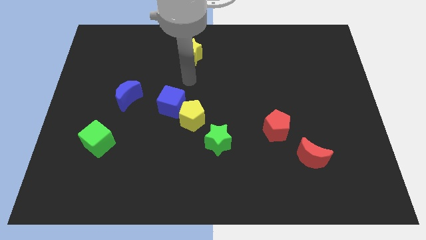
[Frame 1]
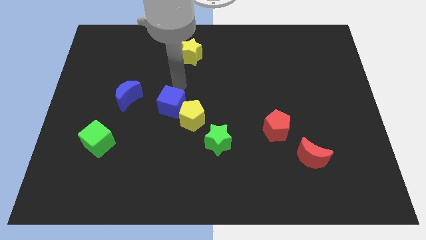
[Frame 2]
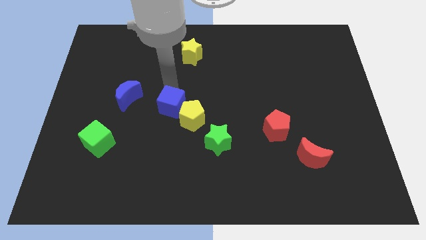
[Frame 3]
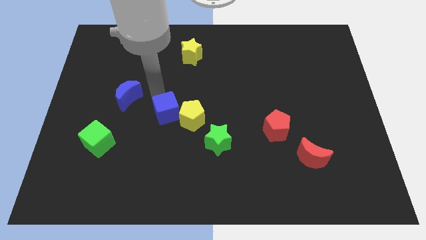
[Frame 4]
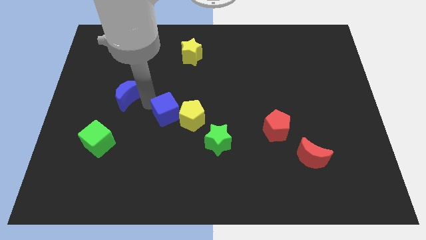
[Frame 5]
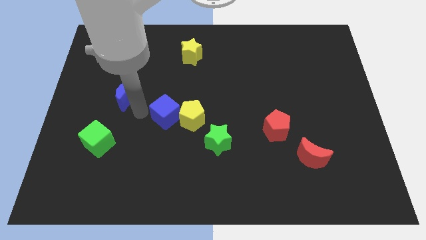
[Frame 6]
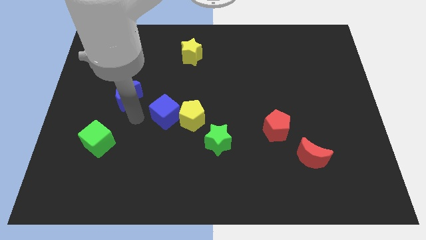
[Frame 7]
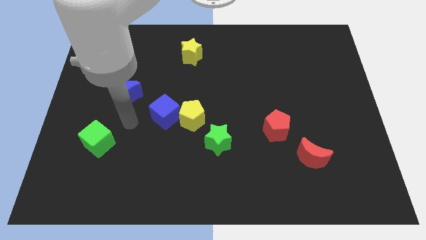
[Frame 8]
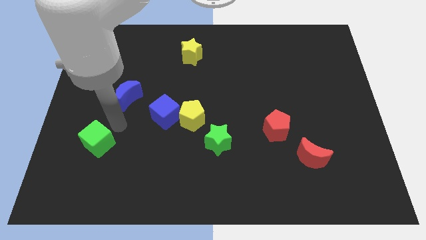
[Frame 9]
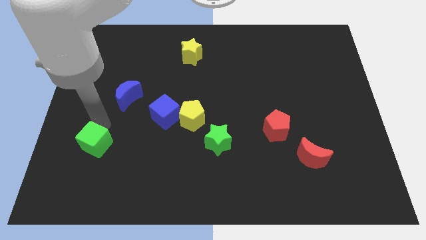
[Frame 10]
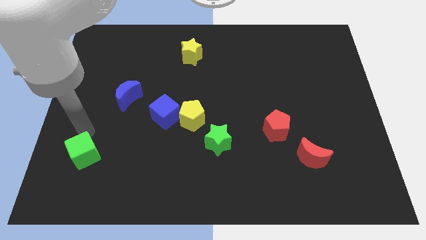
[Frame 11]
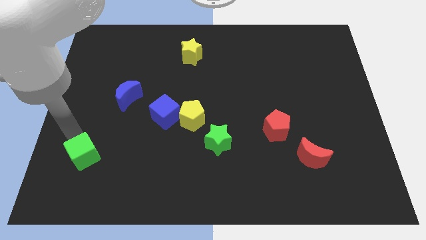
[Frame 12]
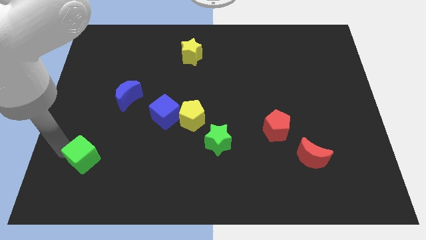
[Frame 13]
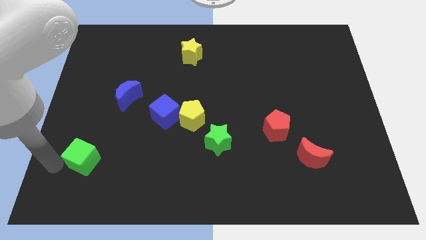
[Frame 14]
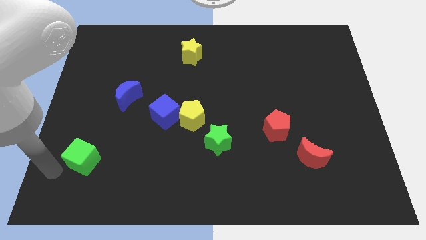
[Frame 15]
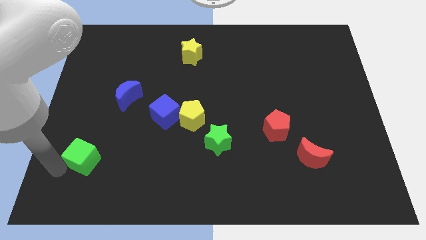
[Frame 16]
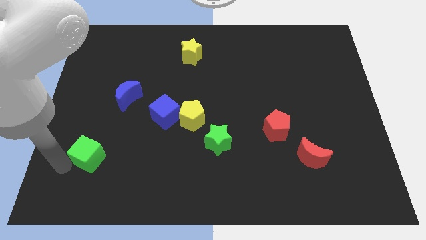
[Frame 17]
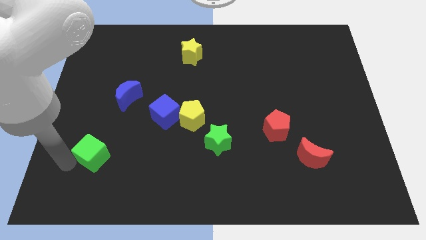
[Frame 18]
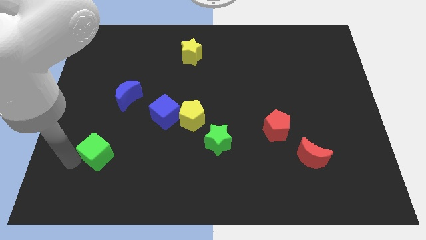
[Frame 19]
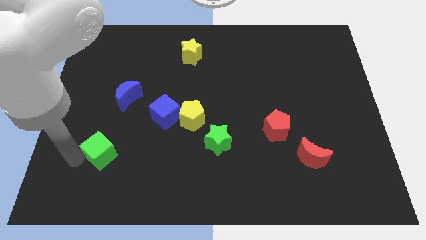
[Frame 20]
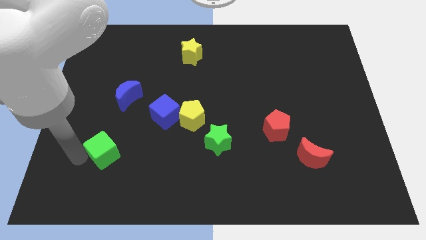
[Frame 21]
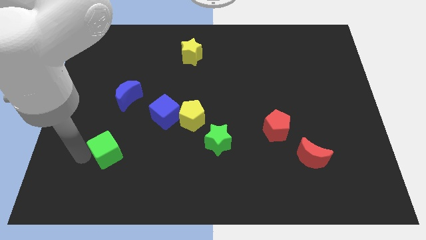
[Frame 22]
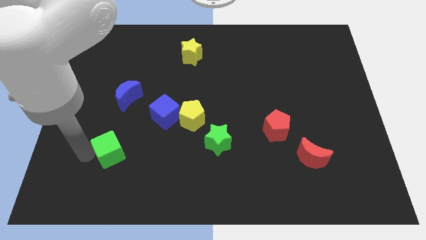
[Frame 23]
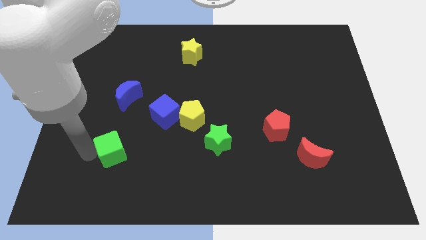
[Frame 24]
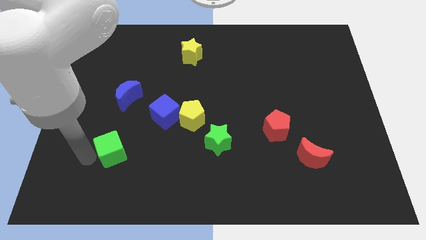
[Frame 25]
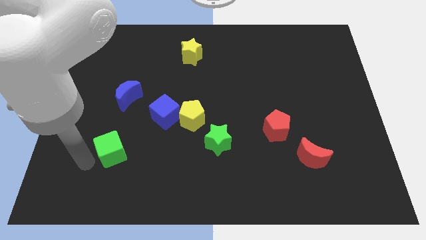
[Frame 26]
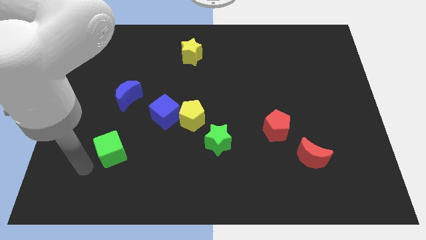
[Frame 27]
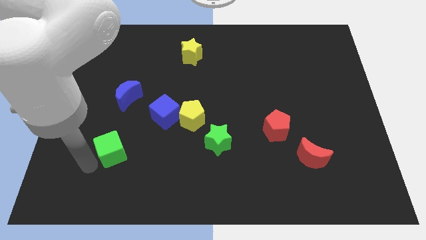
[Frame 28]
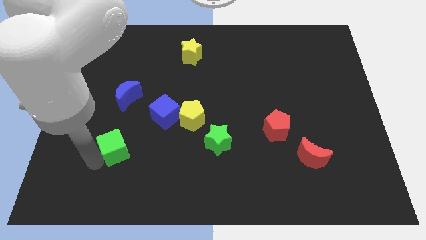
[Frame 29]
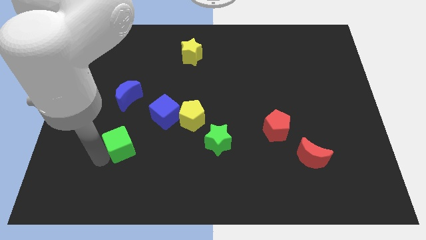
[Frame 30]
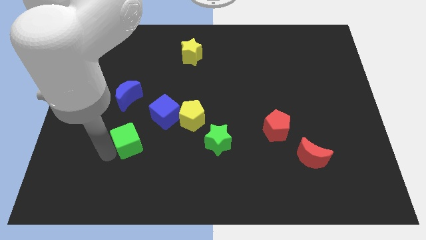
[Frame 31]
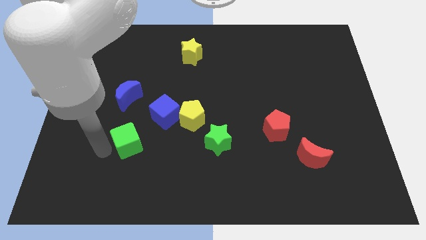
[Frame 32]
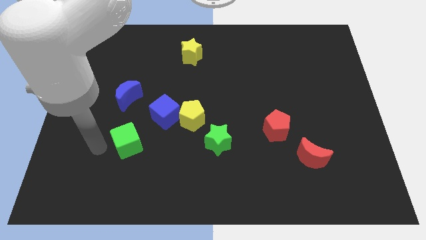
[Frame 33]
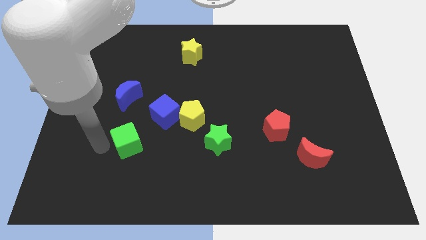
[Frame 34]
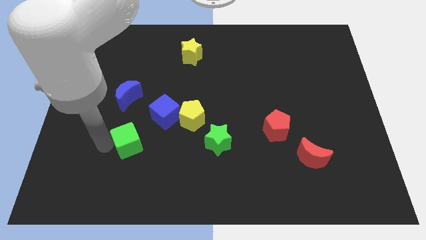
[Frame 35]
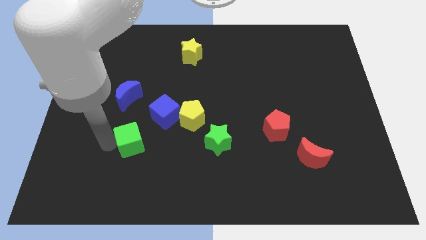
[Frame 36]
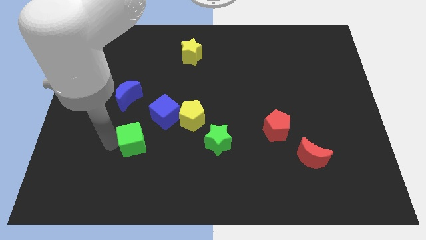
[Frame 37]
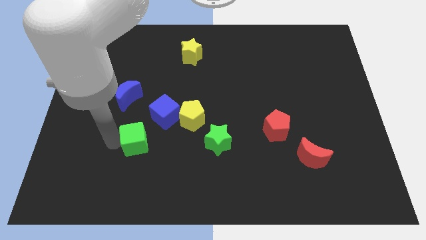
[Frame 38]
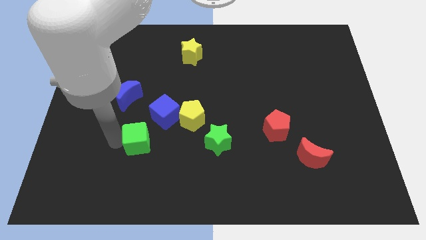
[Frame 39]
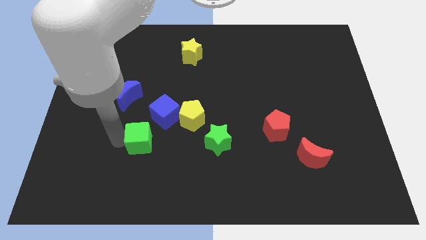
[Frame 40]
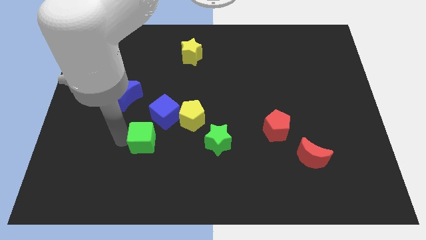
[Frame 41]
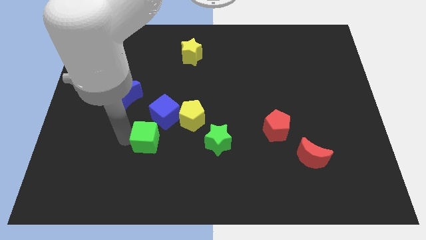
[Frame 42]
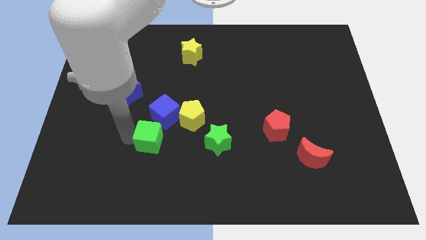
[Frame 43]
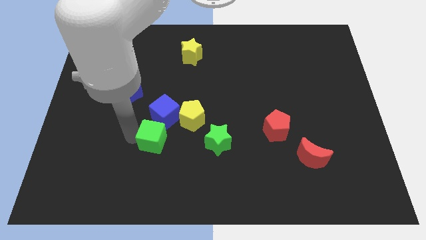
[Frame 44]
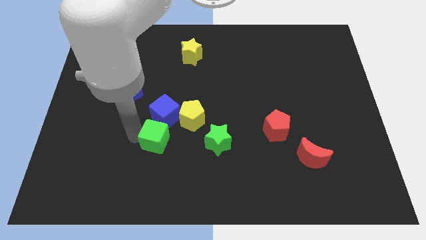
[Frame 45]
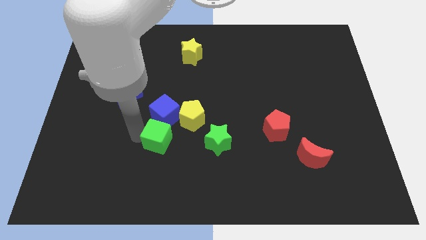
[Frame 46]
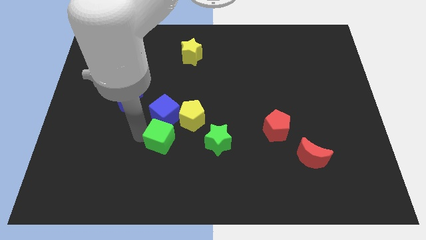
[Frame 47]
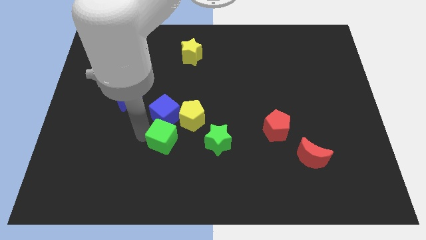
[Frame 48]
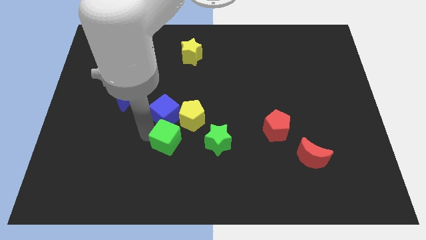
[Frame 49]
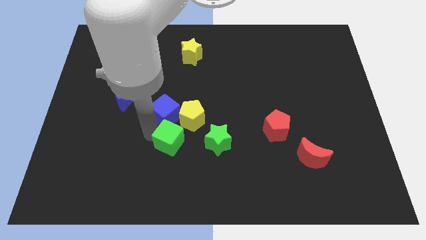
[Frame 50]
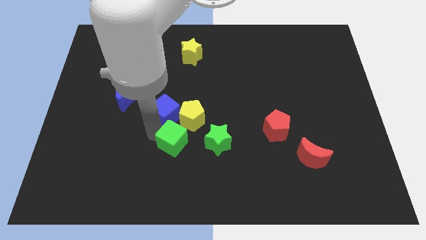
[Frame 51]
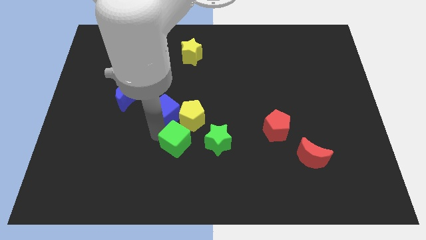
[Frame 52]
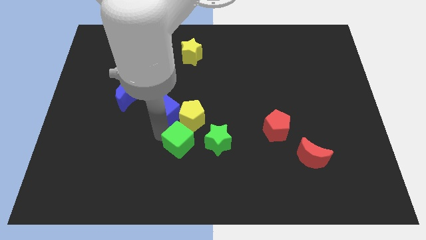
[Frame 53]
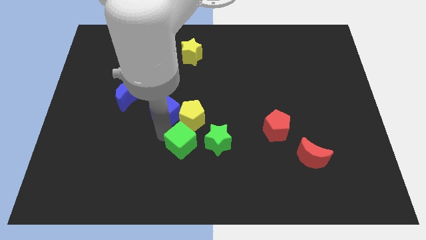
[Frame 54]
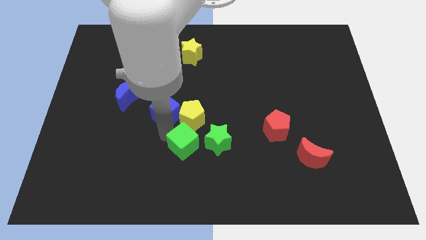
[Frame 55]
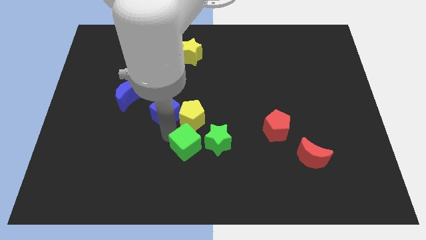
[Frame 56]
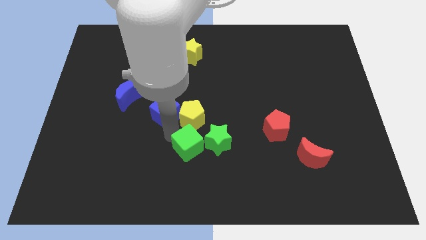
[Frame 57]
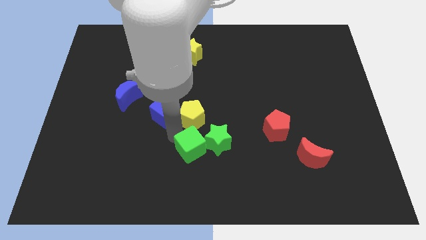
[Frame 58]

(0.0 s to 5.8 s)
slide the green cube towards the green star

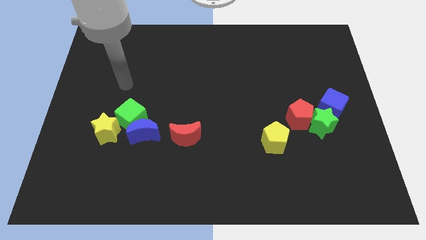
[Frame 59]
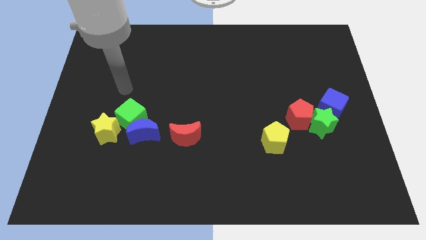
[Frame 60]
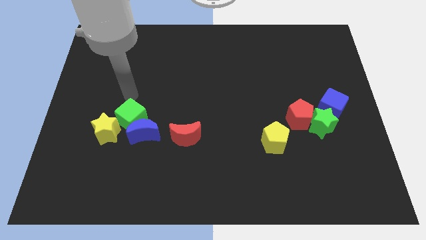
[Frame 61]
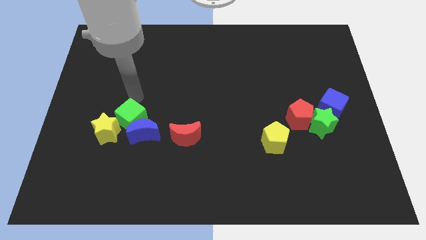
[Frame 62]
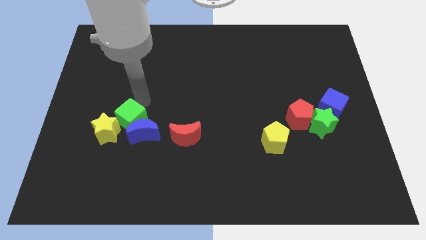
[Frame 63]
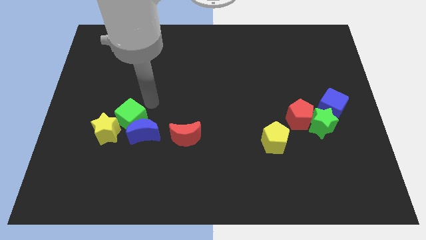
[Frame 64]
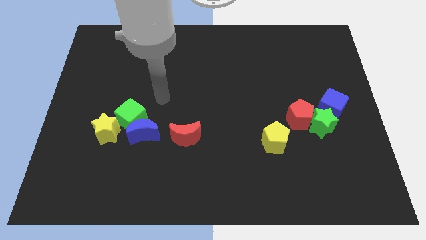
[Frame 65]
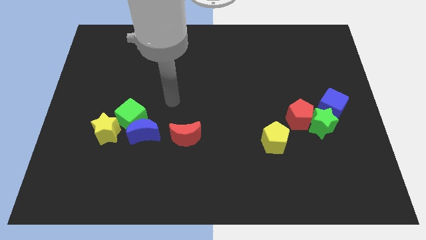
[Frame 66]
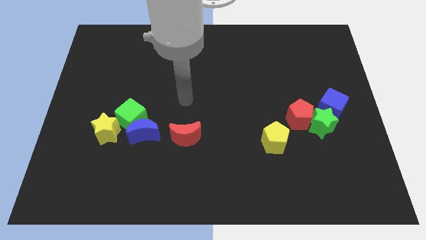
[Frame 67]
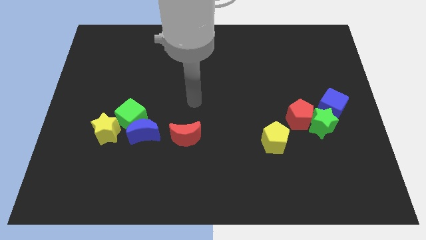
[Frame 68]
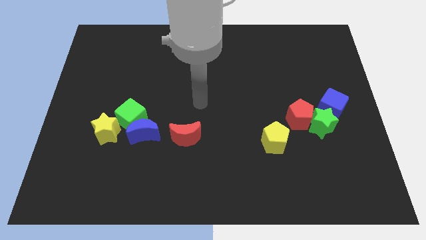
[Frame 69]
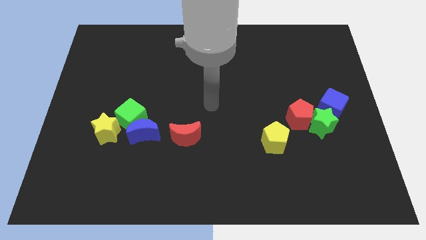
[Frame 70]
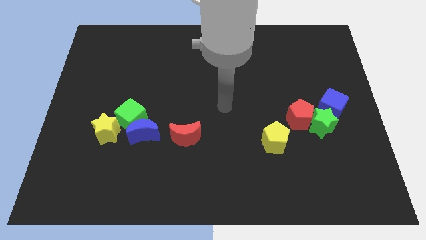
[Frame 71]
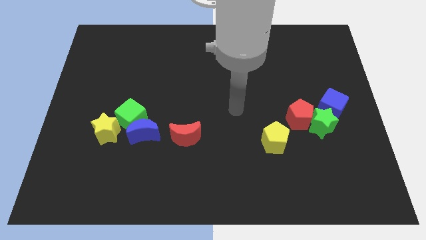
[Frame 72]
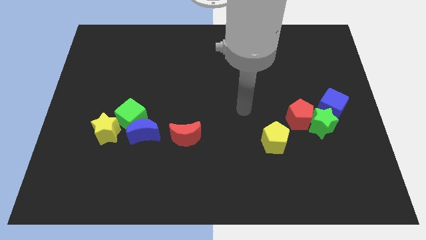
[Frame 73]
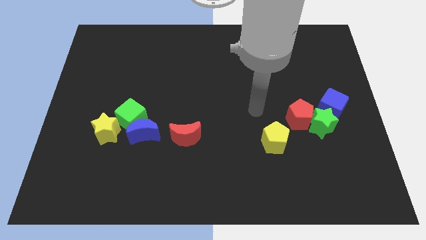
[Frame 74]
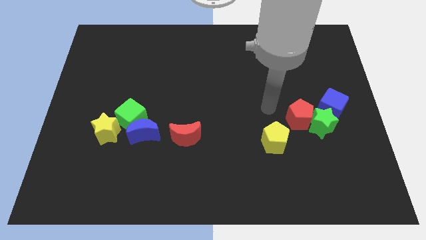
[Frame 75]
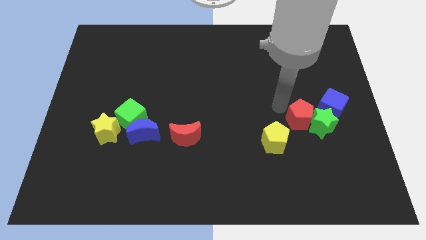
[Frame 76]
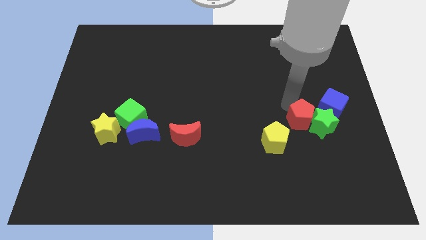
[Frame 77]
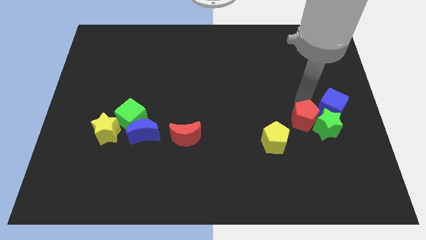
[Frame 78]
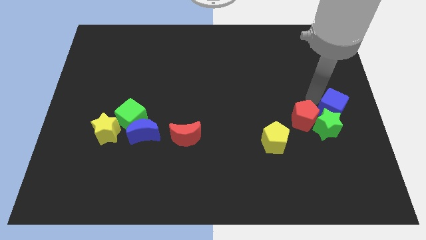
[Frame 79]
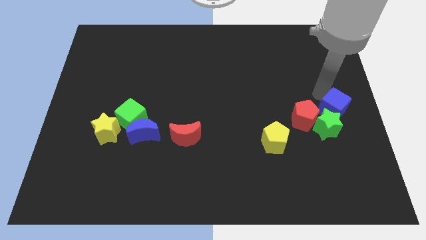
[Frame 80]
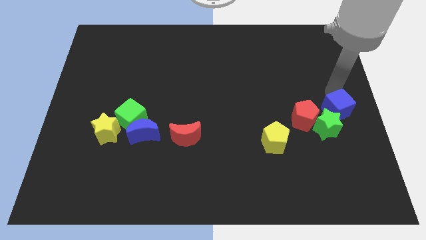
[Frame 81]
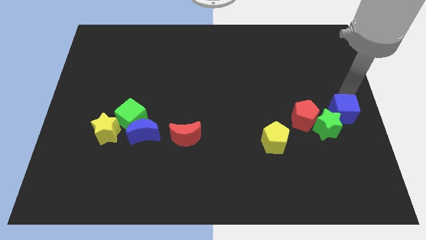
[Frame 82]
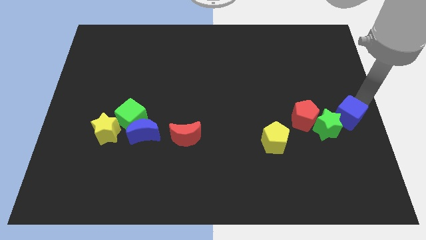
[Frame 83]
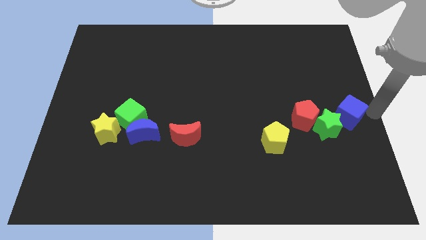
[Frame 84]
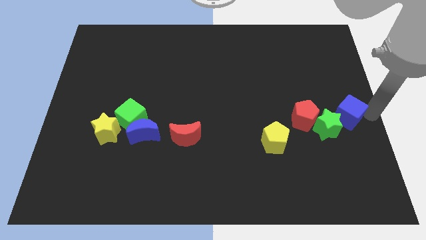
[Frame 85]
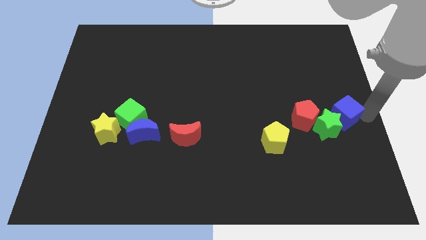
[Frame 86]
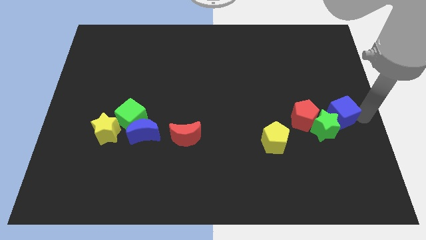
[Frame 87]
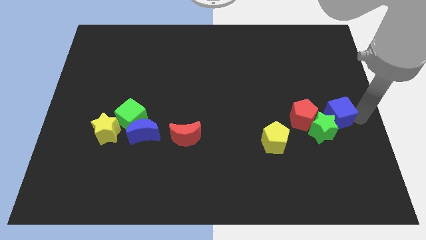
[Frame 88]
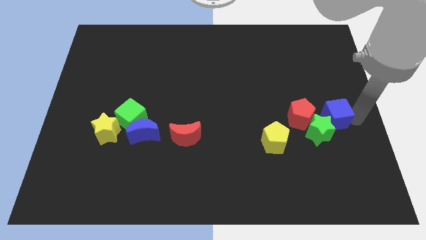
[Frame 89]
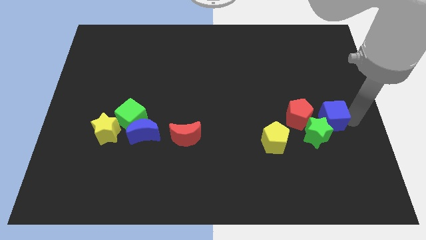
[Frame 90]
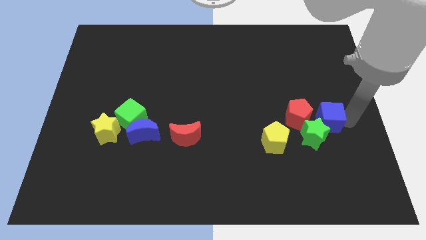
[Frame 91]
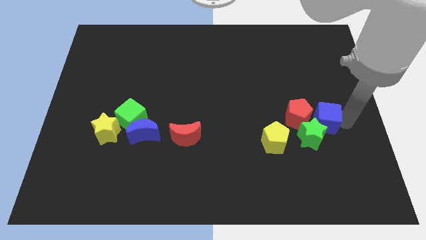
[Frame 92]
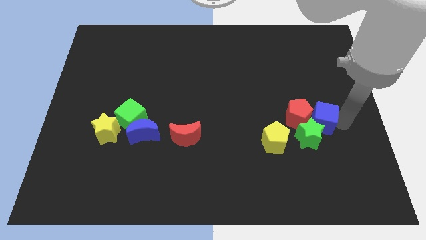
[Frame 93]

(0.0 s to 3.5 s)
move the blue cube to the red pentagon
